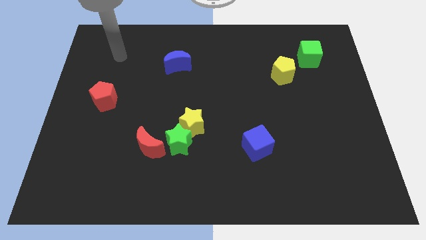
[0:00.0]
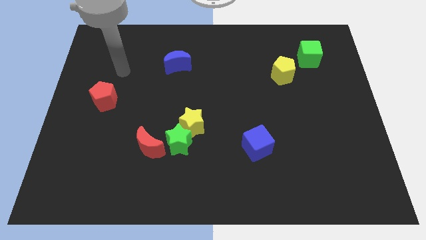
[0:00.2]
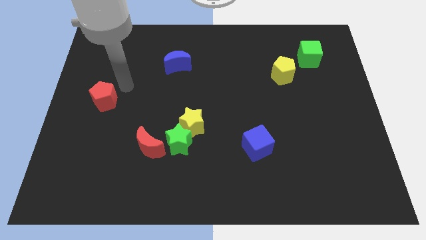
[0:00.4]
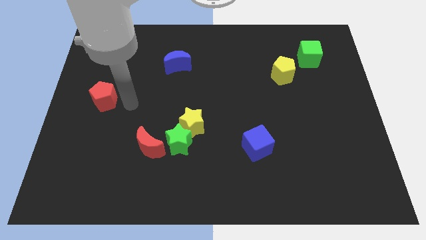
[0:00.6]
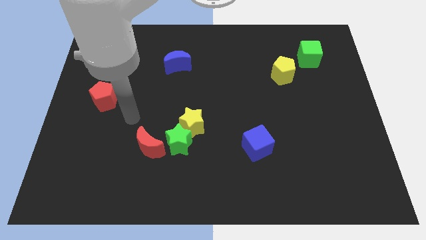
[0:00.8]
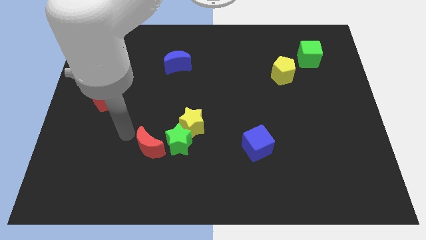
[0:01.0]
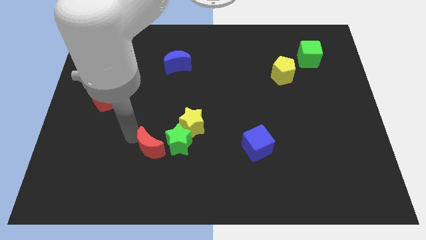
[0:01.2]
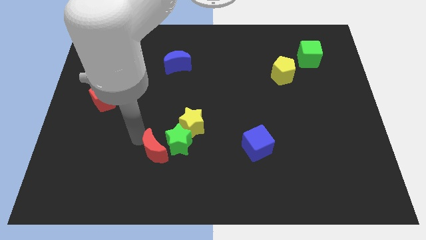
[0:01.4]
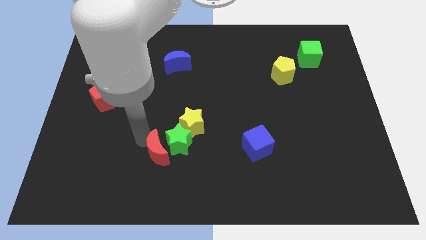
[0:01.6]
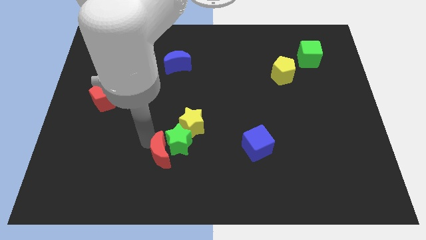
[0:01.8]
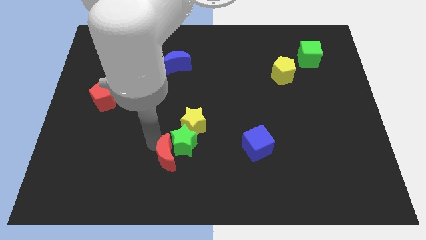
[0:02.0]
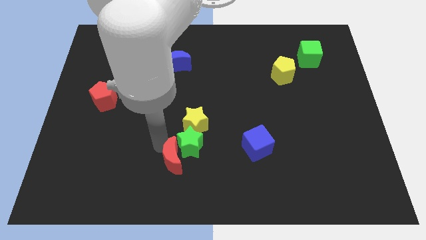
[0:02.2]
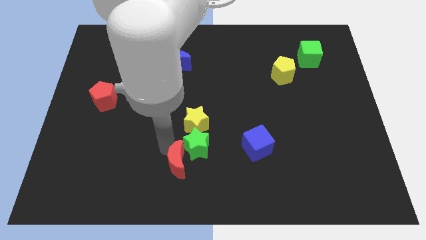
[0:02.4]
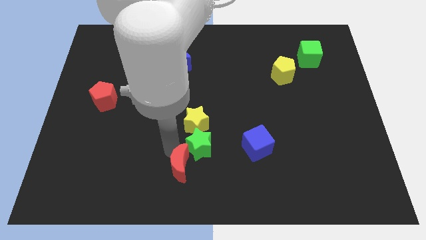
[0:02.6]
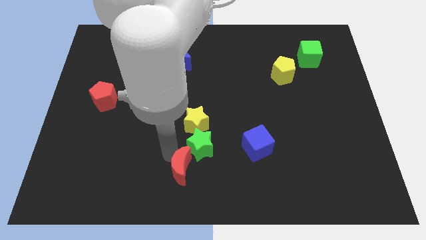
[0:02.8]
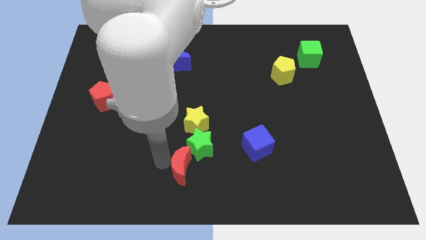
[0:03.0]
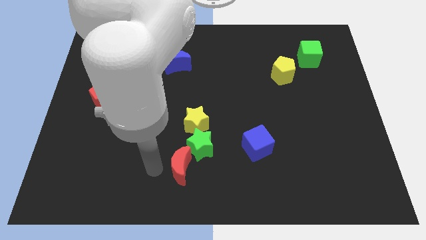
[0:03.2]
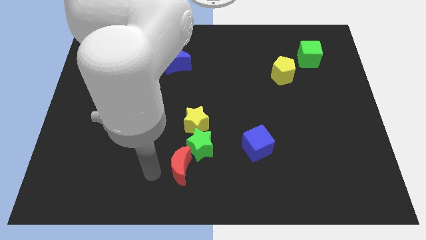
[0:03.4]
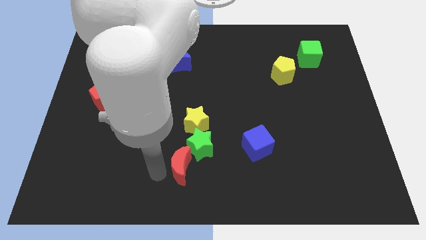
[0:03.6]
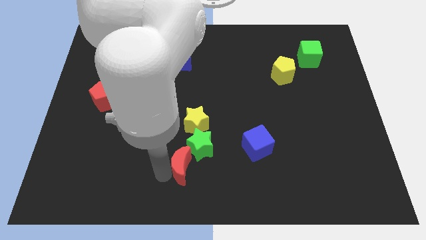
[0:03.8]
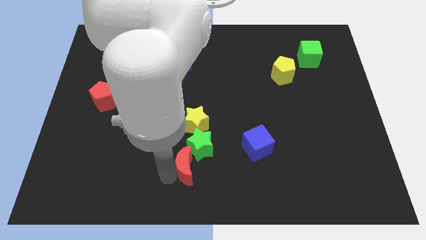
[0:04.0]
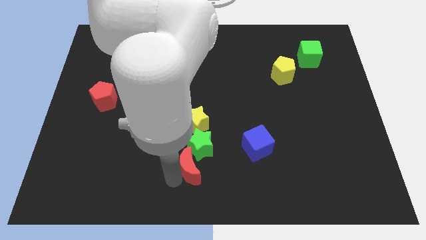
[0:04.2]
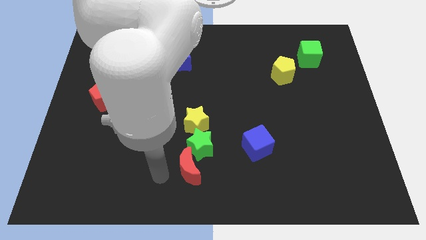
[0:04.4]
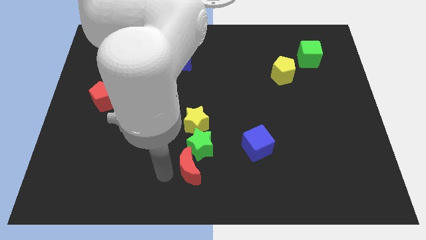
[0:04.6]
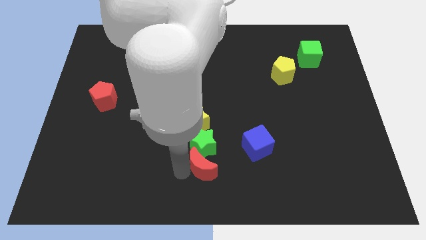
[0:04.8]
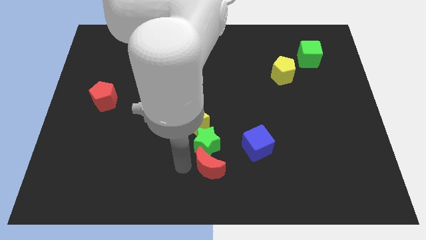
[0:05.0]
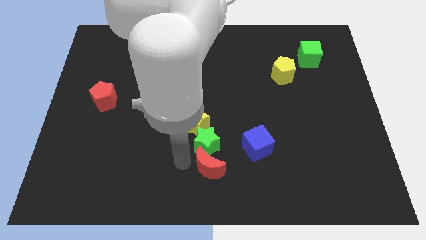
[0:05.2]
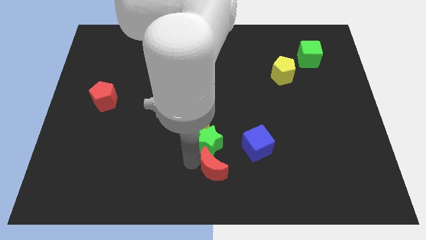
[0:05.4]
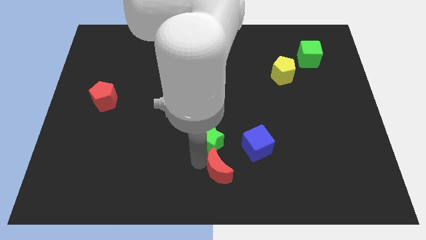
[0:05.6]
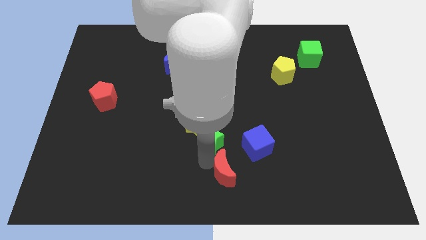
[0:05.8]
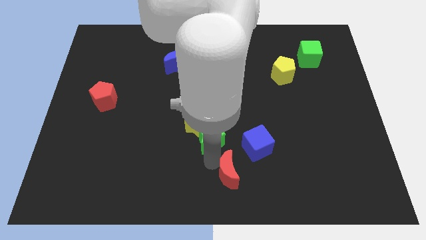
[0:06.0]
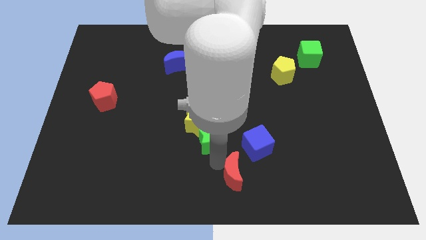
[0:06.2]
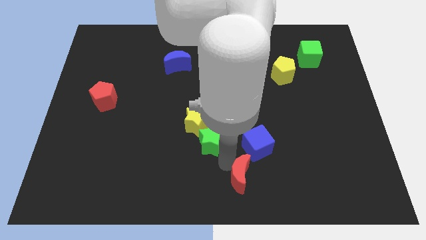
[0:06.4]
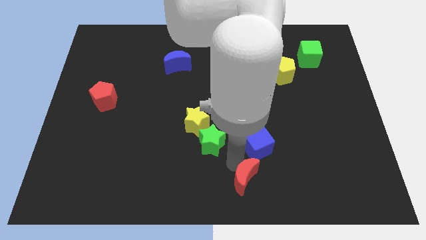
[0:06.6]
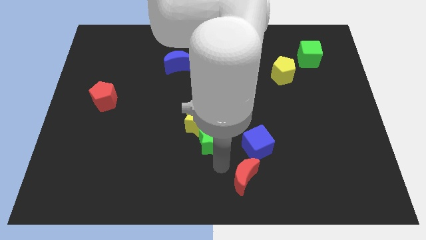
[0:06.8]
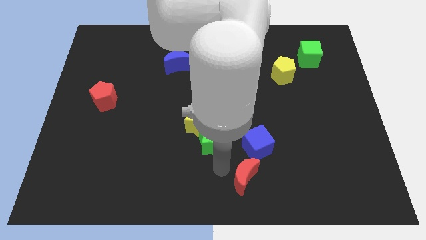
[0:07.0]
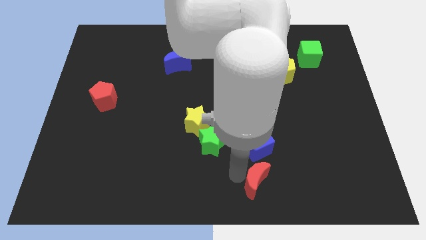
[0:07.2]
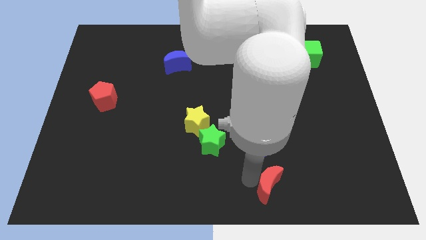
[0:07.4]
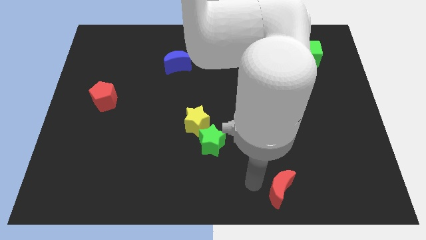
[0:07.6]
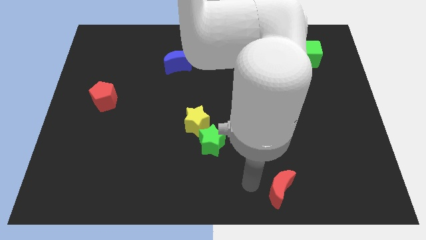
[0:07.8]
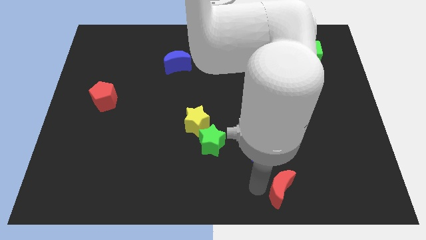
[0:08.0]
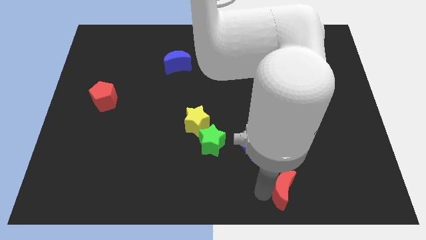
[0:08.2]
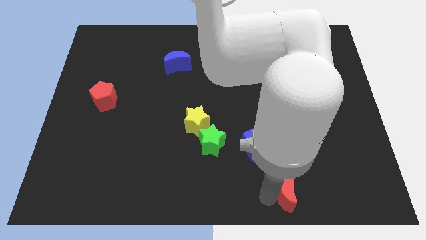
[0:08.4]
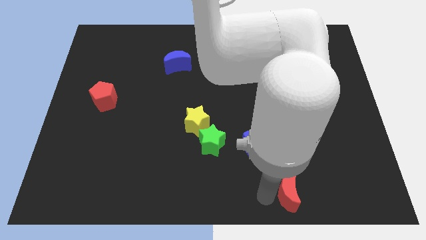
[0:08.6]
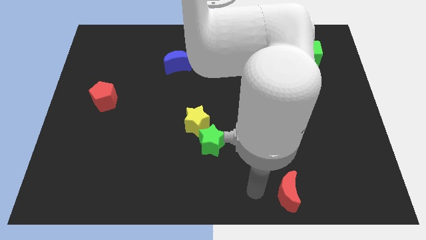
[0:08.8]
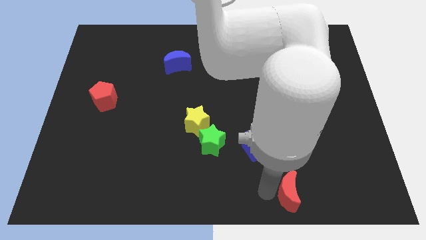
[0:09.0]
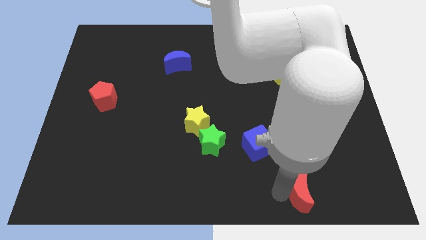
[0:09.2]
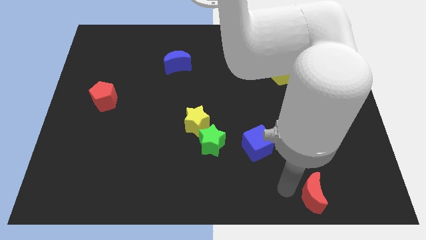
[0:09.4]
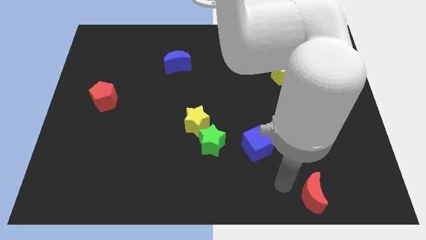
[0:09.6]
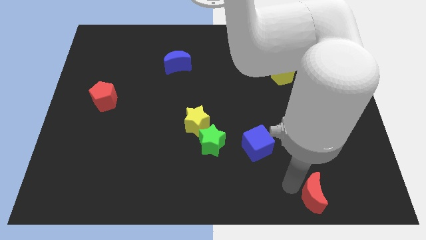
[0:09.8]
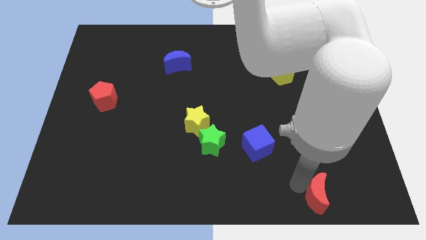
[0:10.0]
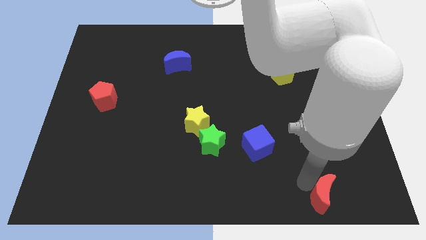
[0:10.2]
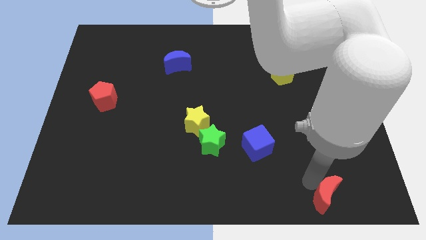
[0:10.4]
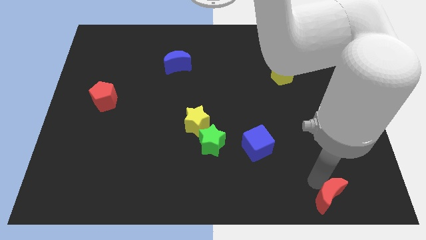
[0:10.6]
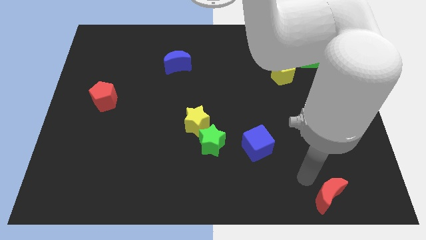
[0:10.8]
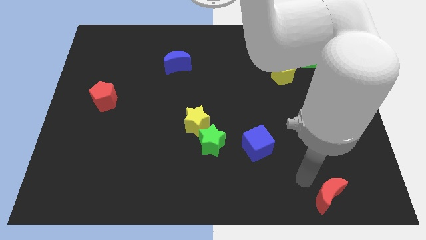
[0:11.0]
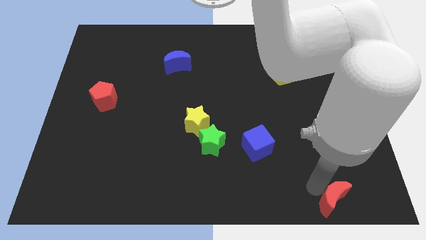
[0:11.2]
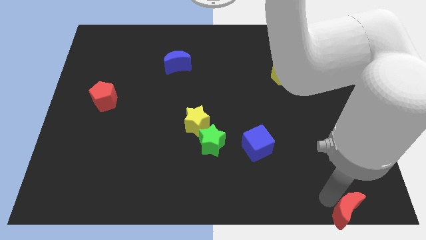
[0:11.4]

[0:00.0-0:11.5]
put the red moon to the lower right corner
